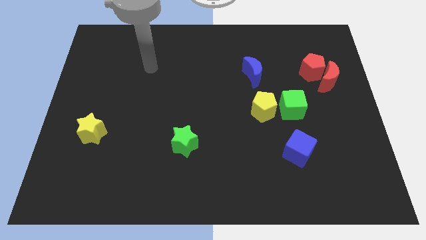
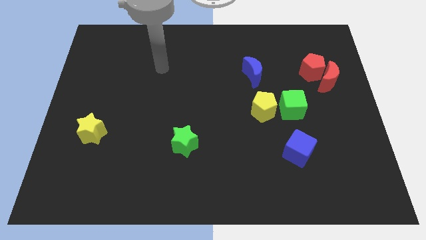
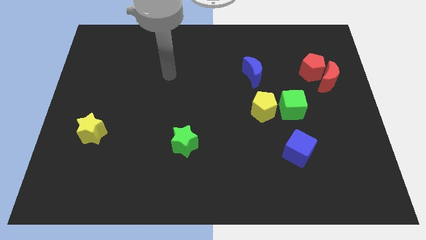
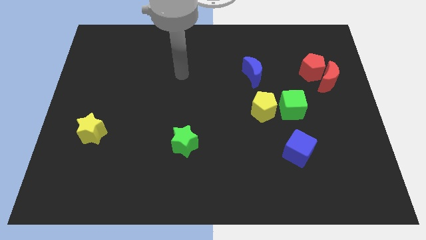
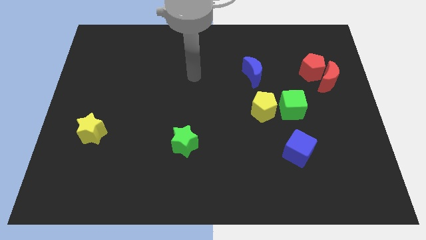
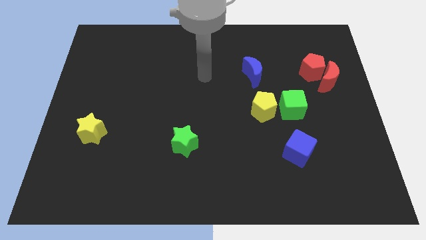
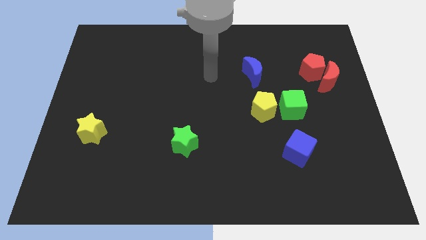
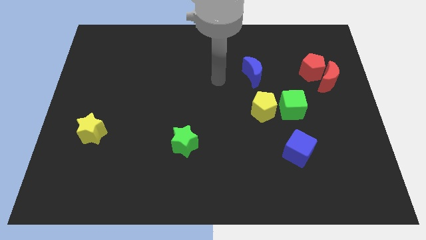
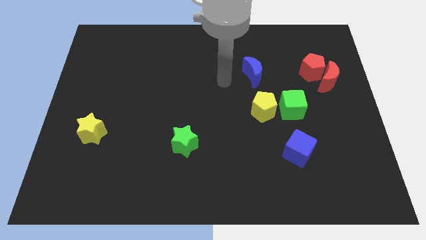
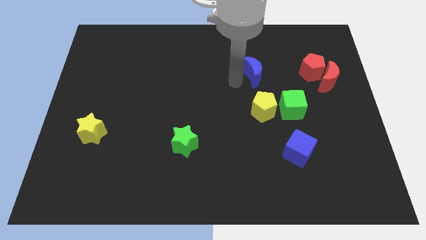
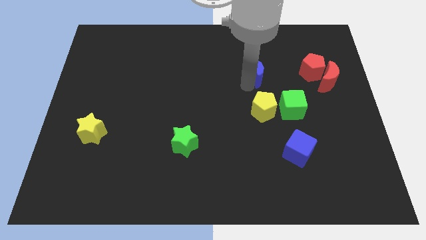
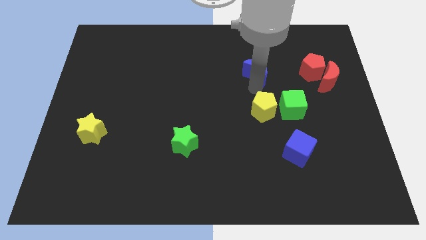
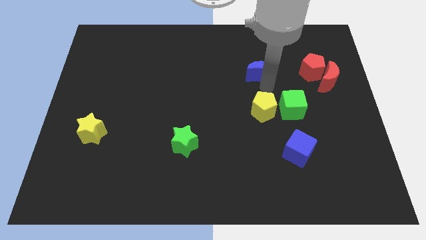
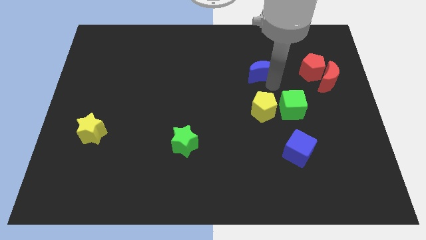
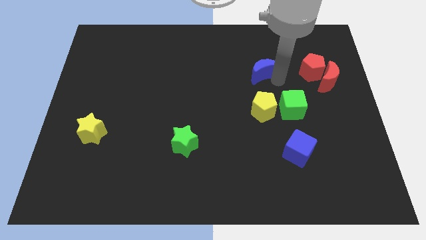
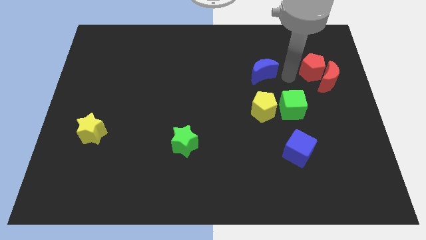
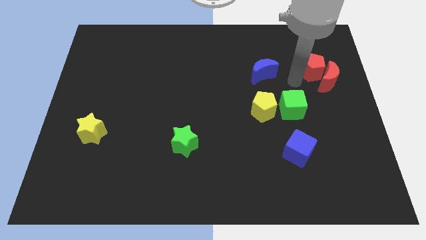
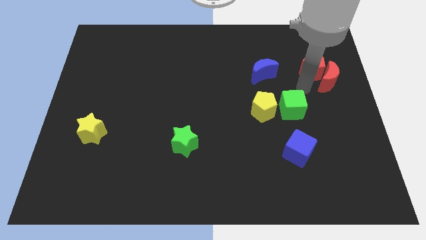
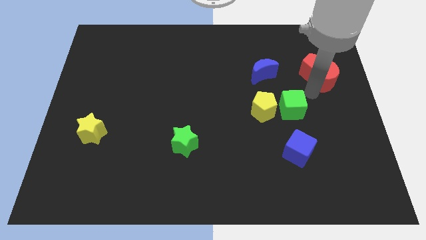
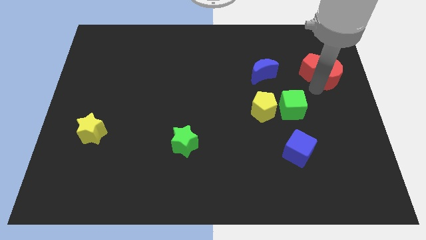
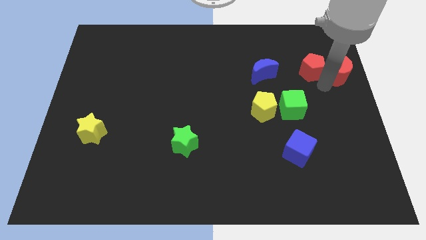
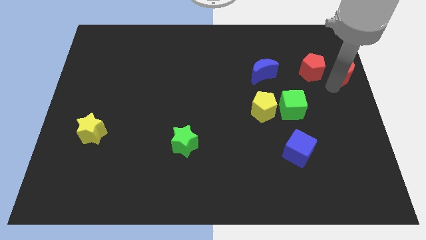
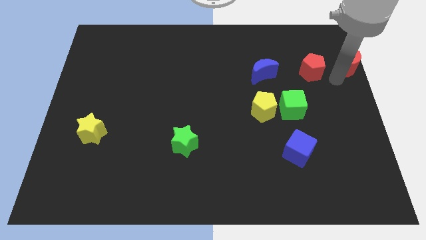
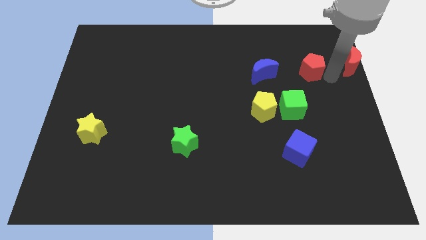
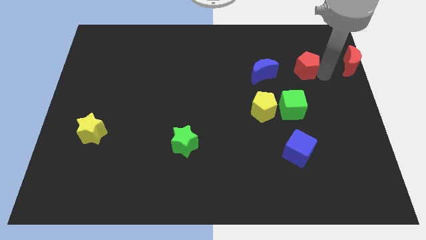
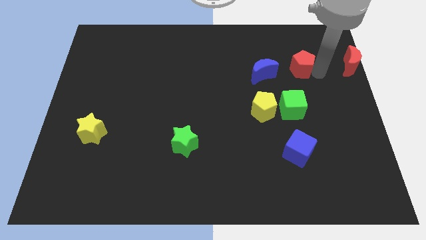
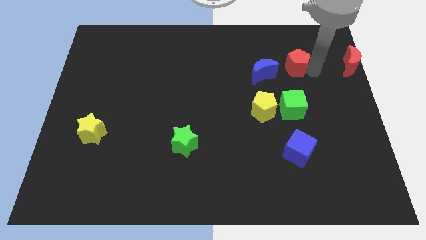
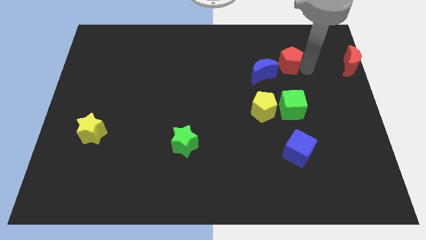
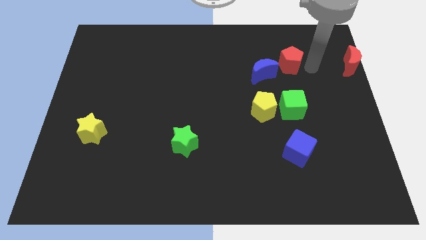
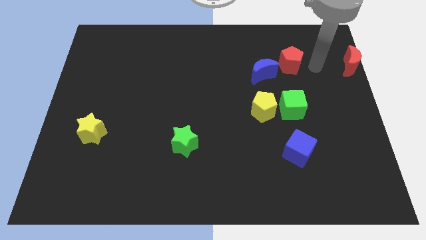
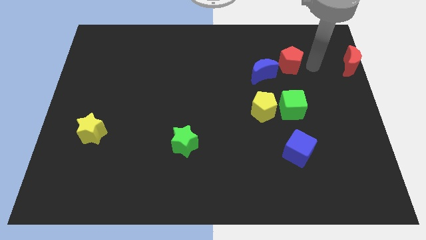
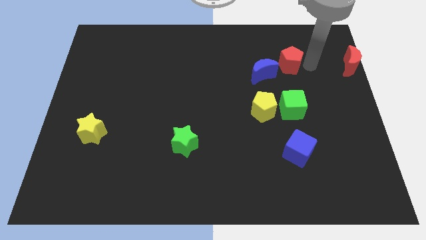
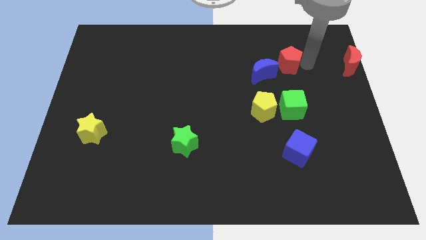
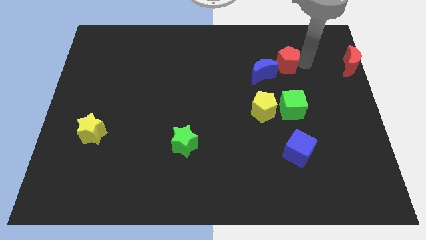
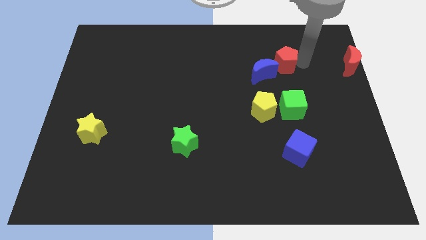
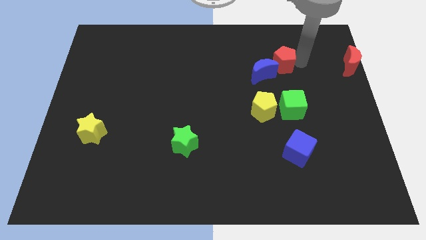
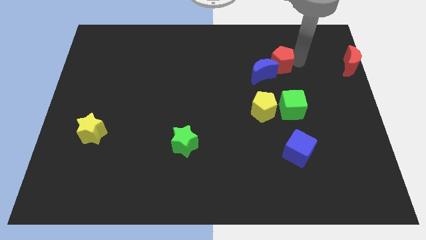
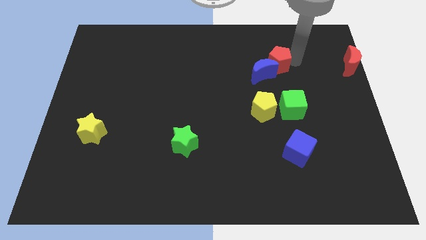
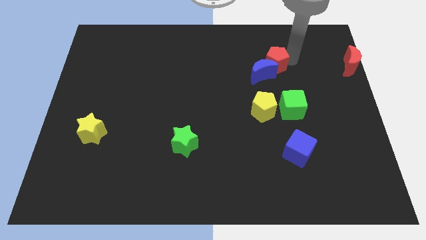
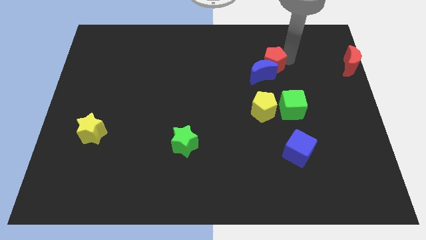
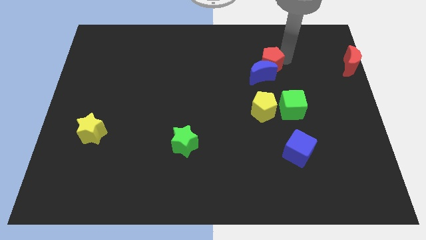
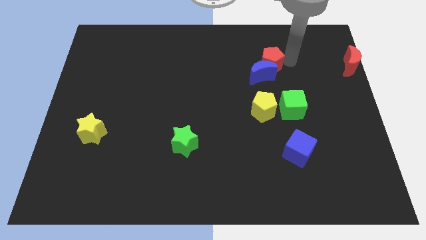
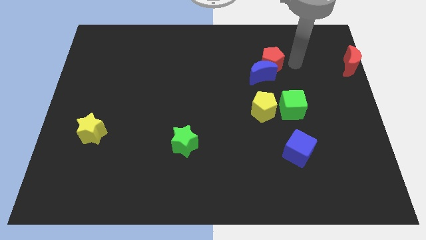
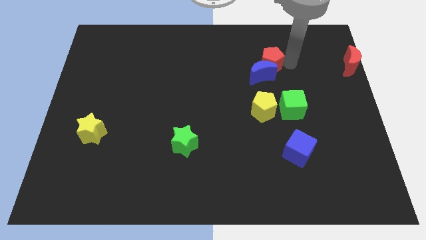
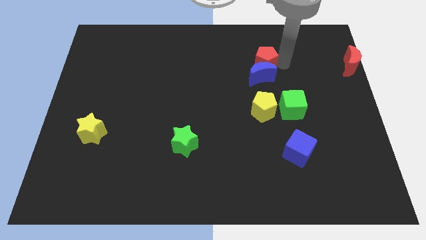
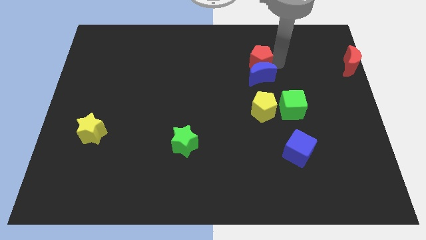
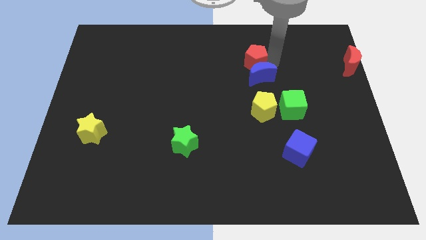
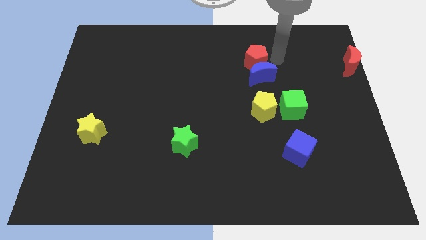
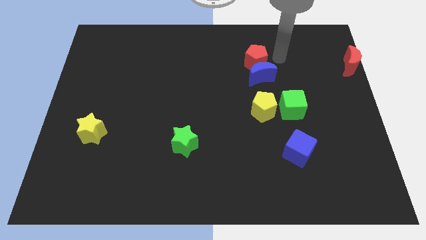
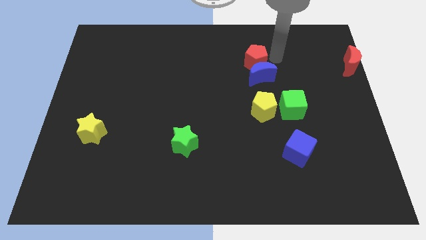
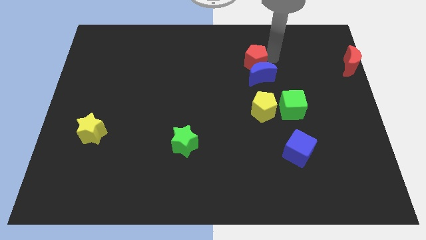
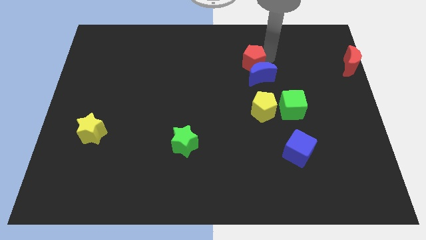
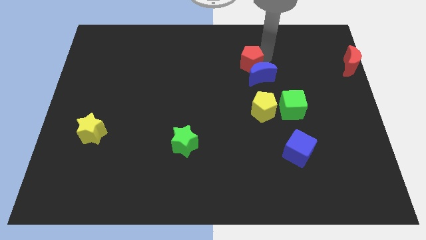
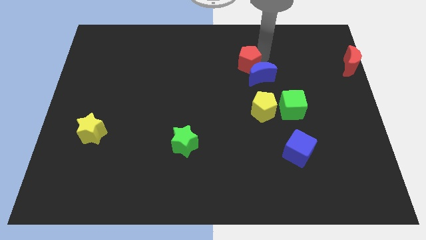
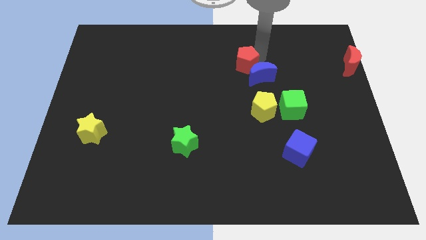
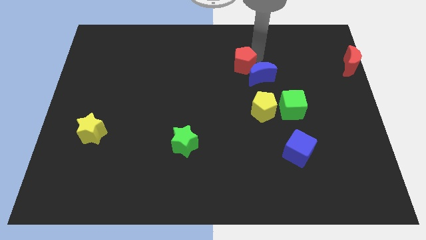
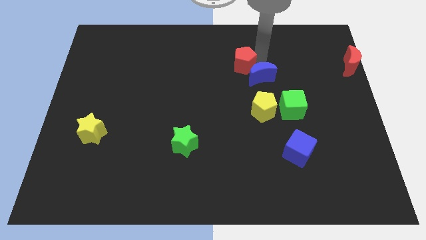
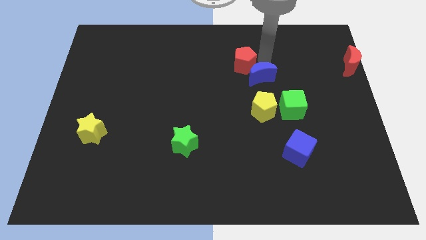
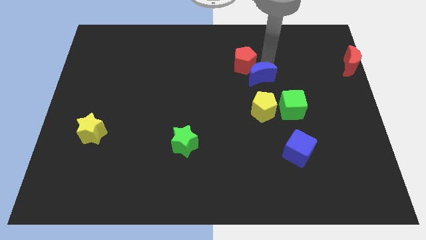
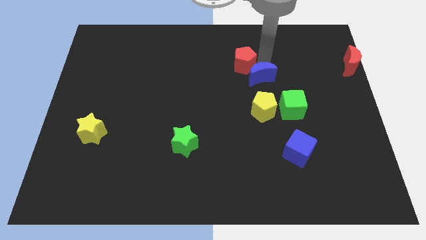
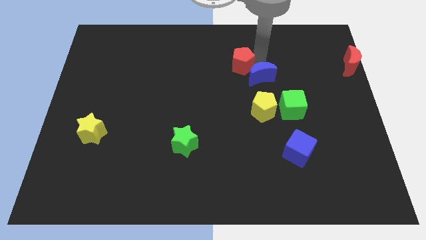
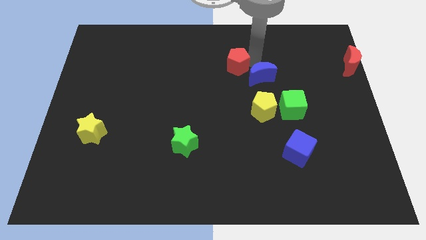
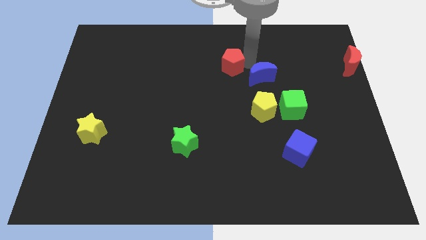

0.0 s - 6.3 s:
slide the red pentagon to the left

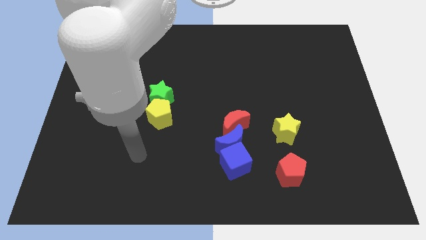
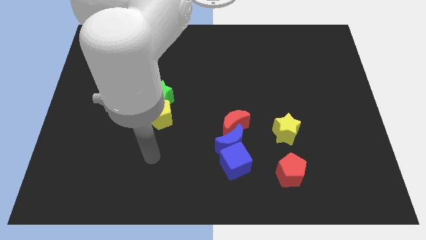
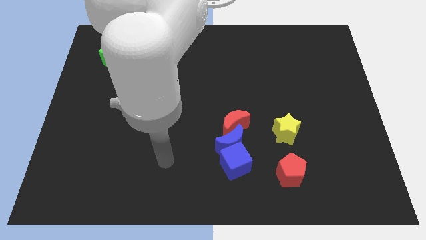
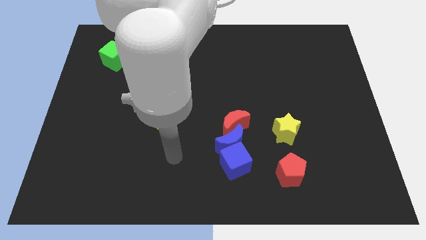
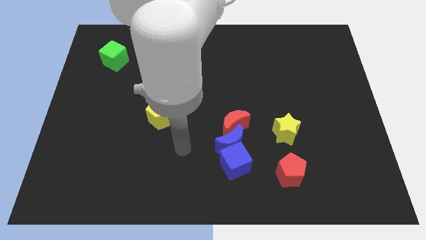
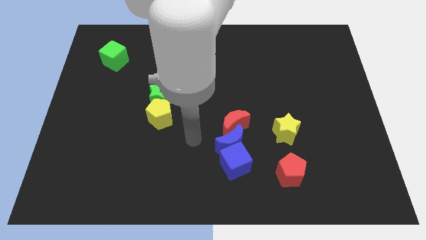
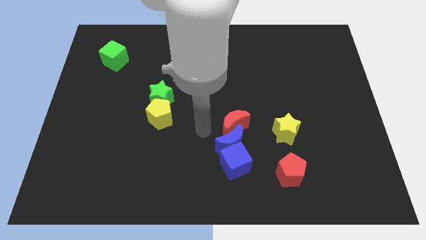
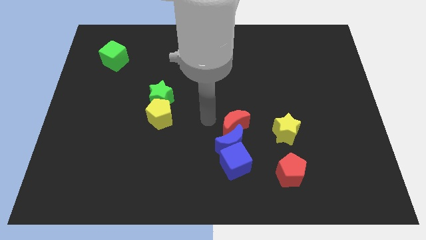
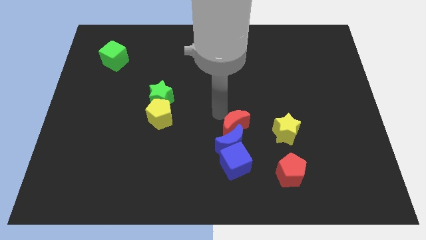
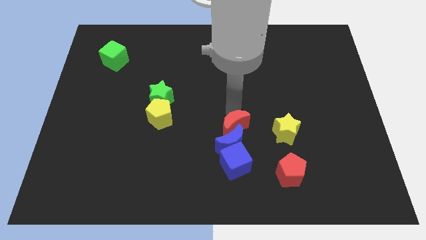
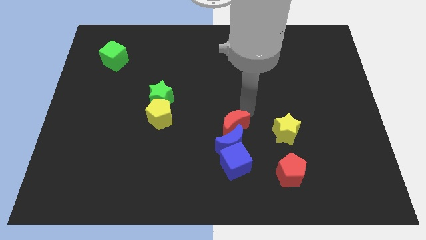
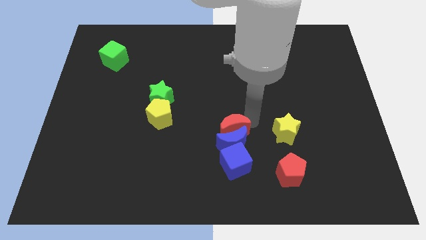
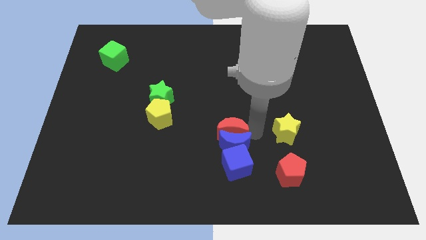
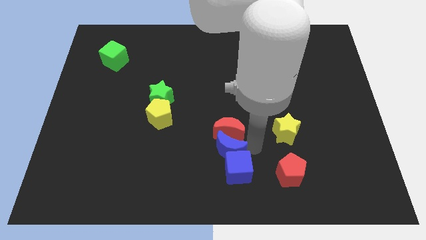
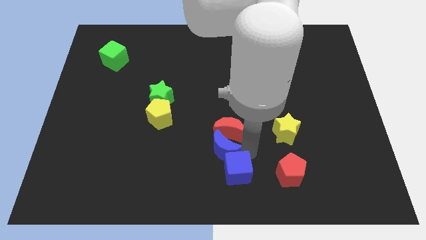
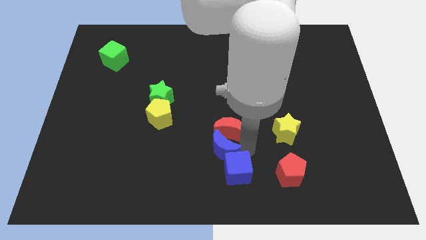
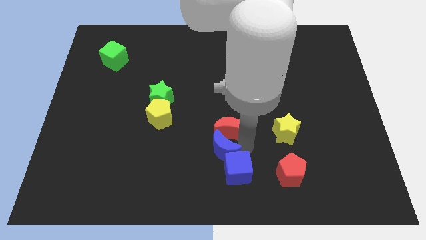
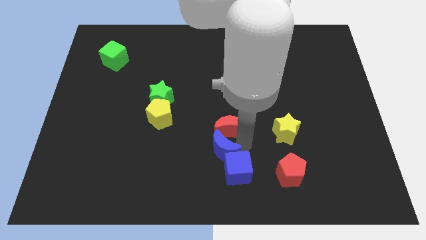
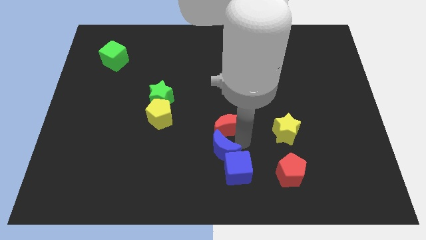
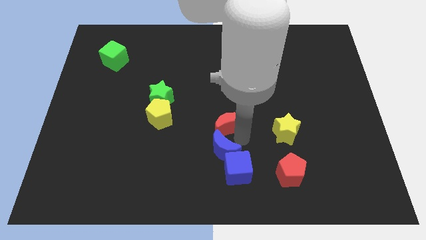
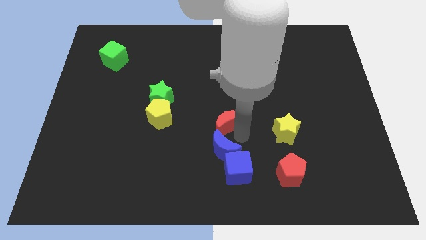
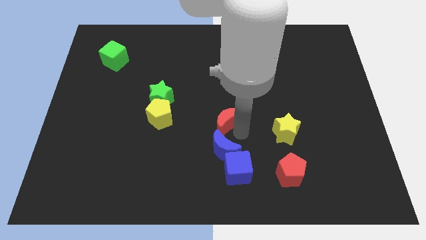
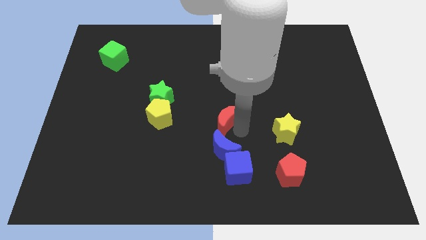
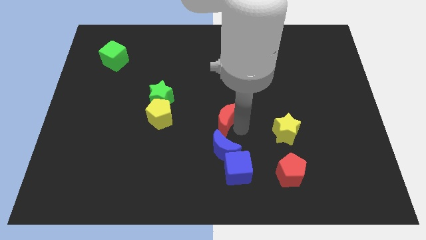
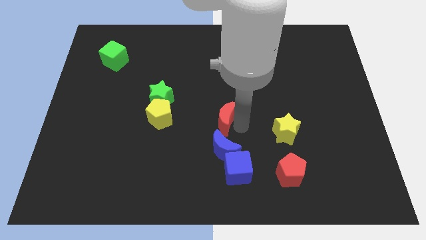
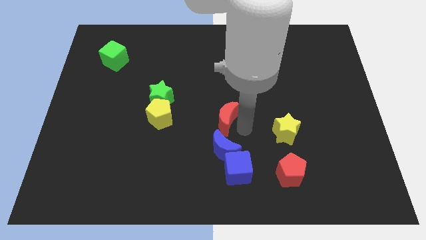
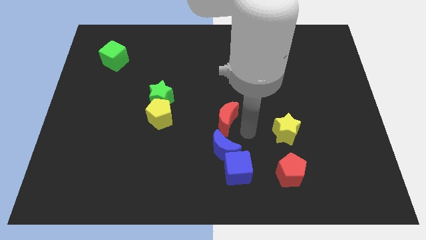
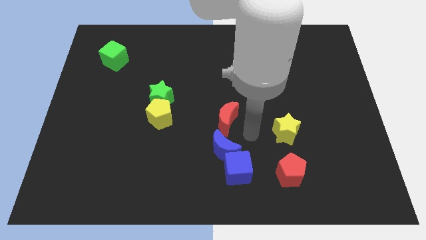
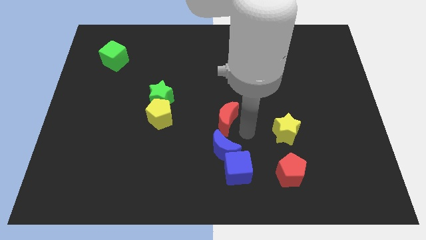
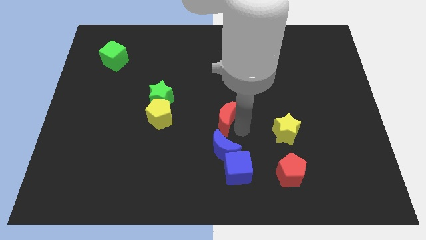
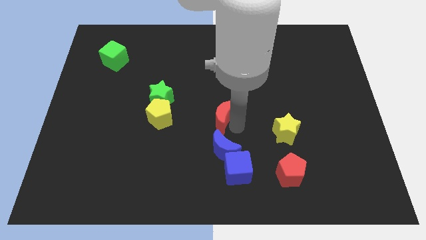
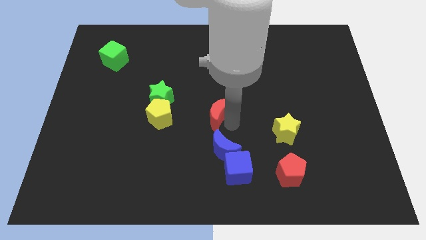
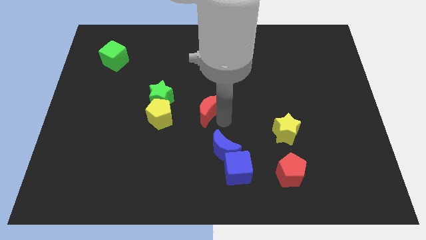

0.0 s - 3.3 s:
slide the red moon up and left diagonally a little
